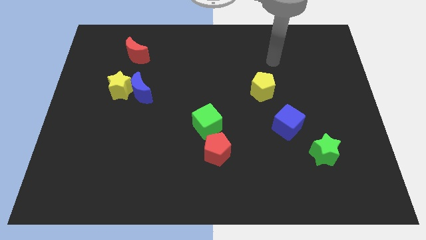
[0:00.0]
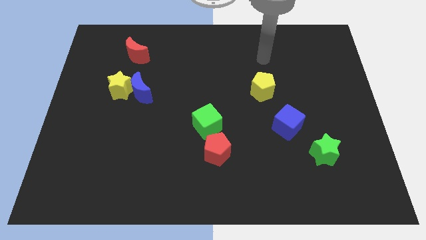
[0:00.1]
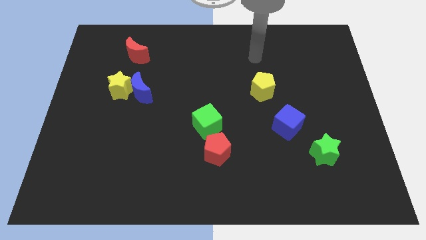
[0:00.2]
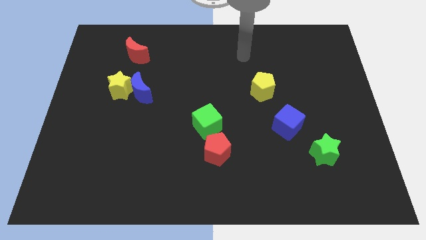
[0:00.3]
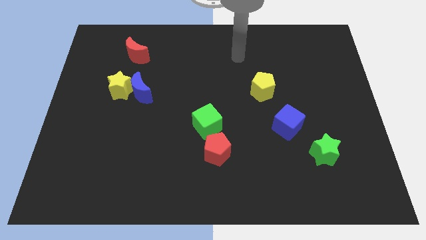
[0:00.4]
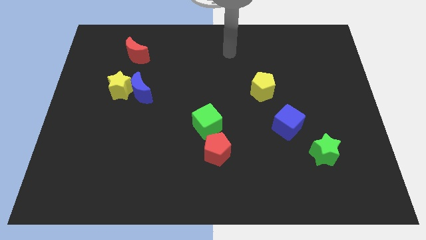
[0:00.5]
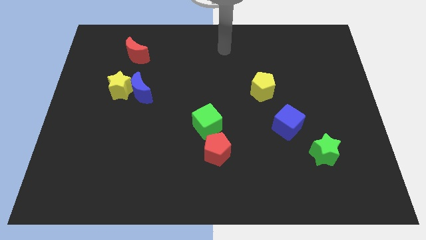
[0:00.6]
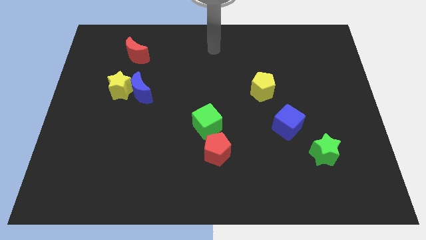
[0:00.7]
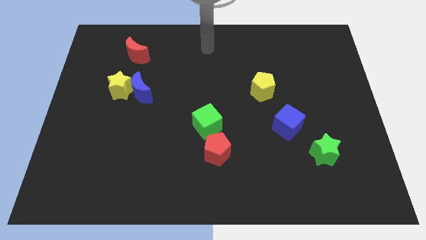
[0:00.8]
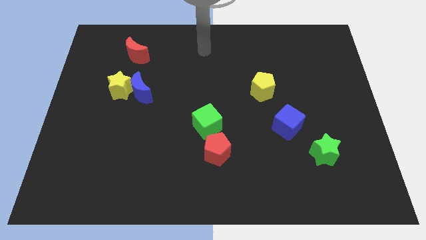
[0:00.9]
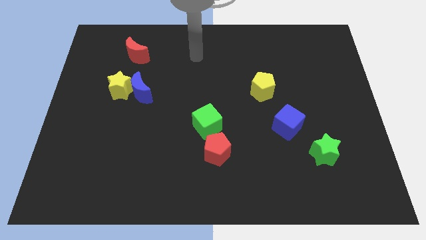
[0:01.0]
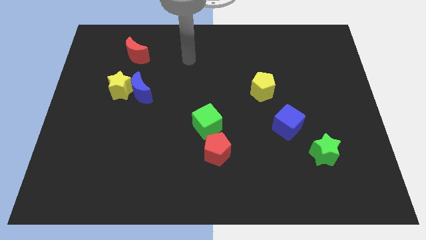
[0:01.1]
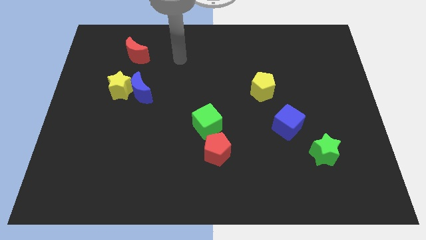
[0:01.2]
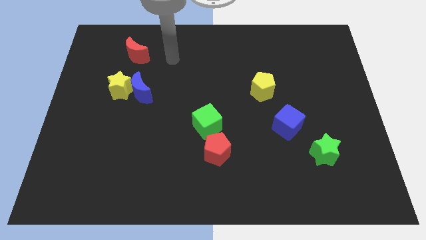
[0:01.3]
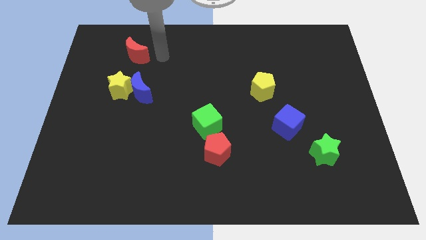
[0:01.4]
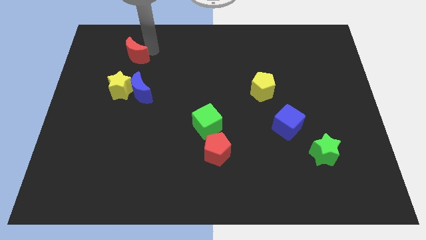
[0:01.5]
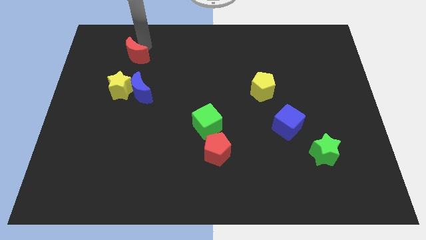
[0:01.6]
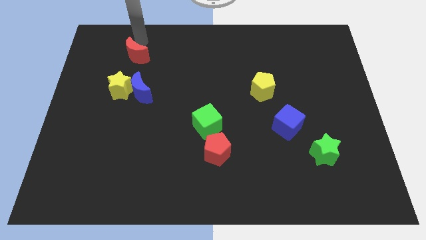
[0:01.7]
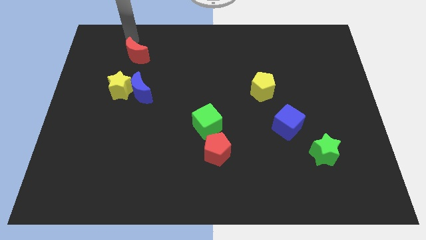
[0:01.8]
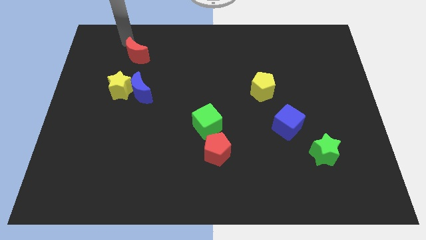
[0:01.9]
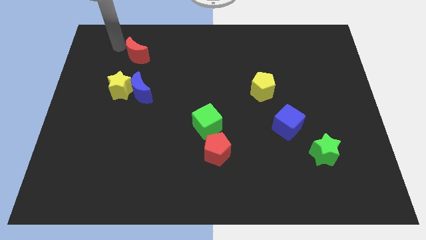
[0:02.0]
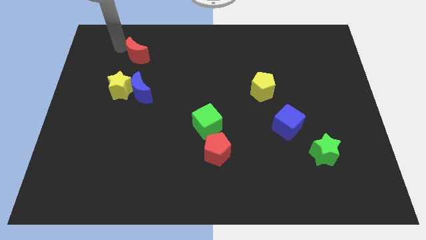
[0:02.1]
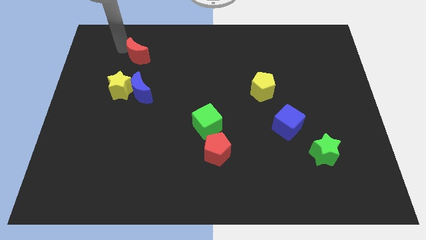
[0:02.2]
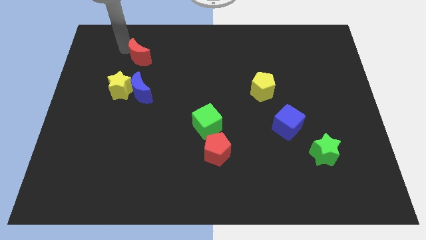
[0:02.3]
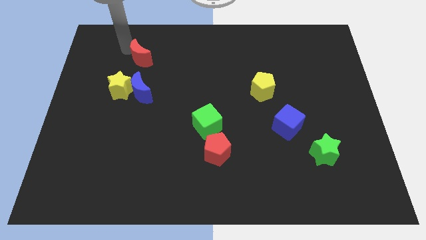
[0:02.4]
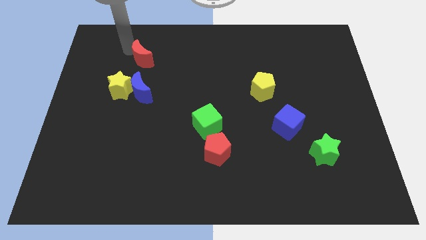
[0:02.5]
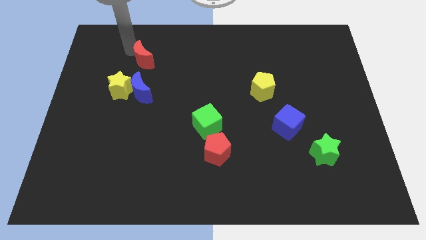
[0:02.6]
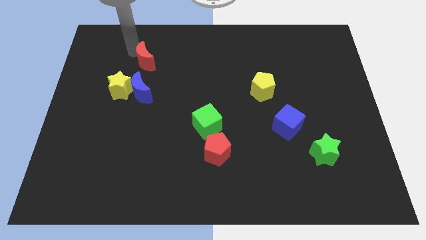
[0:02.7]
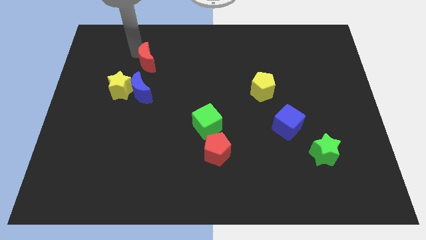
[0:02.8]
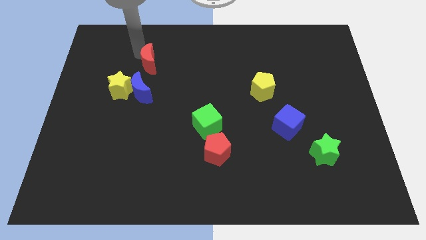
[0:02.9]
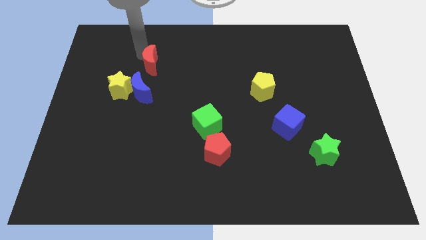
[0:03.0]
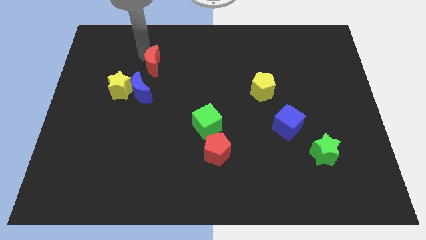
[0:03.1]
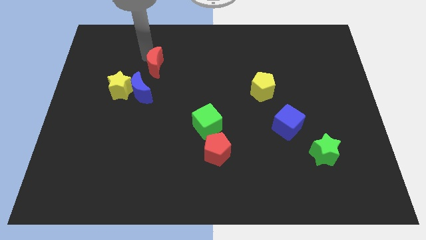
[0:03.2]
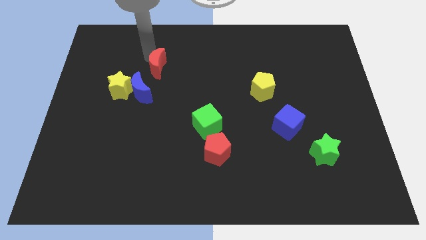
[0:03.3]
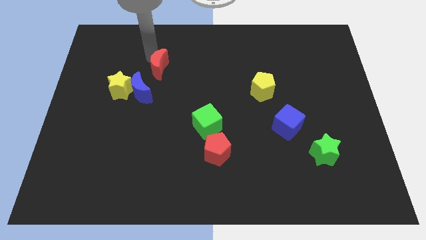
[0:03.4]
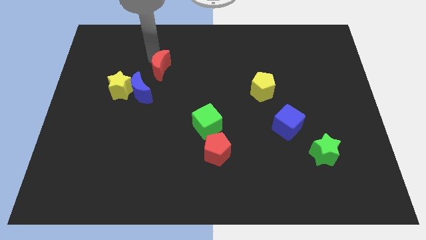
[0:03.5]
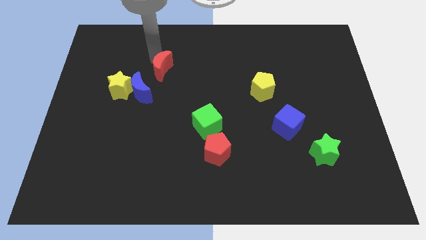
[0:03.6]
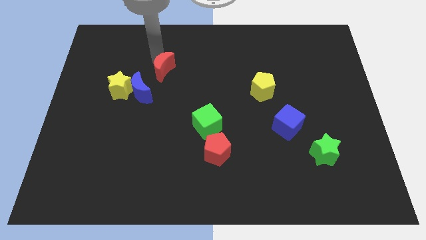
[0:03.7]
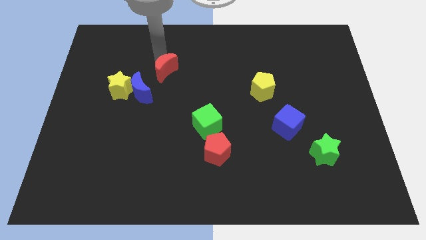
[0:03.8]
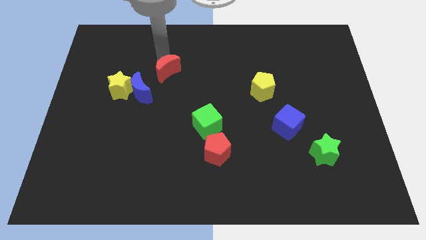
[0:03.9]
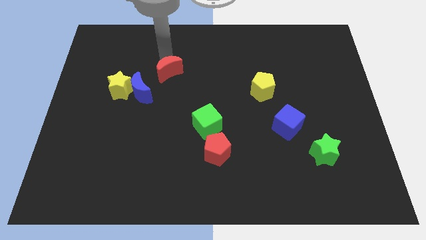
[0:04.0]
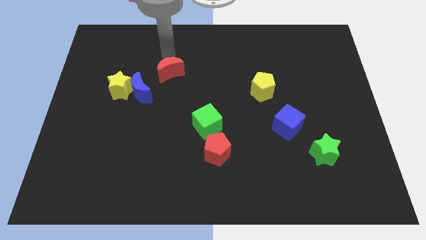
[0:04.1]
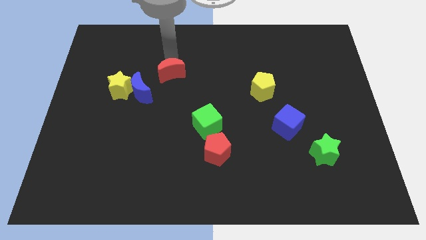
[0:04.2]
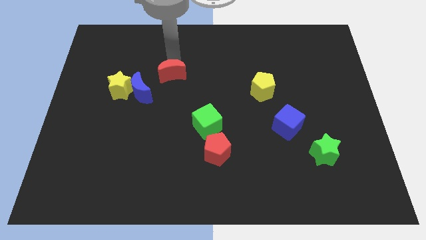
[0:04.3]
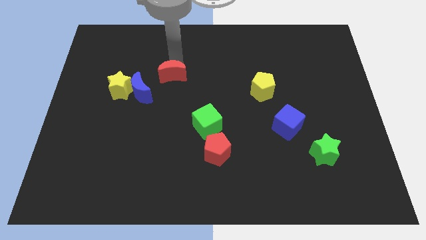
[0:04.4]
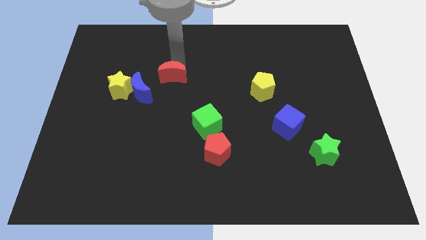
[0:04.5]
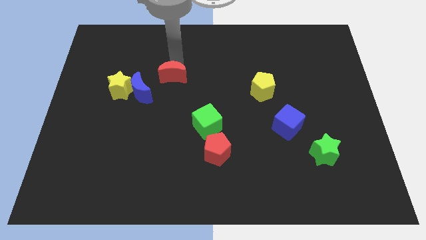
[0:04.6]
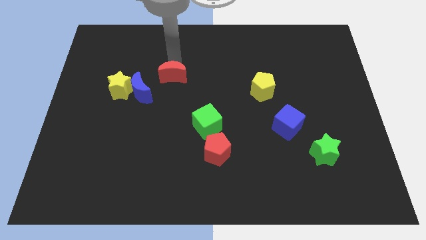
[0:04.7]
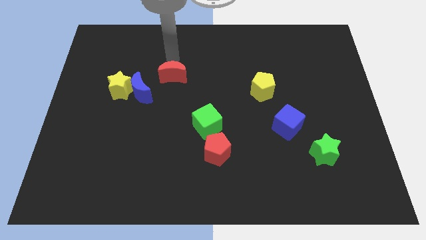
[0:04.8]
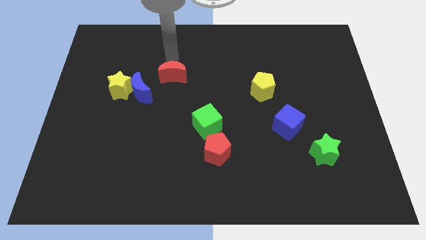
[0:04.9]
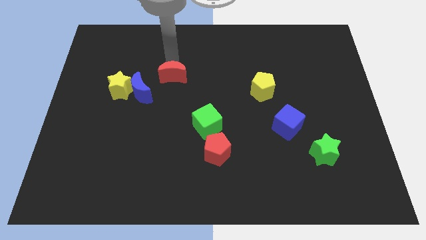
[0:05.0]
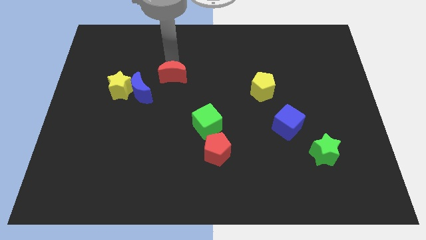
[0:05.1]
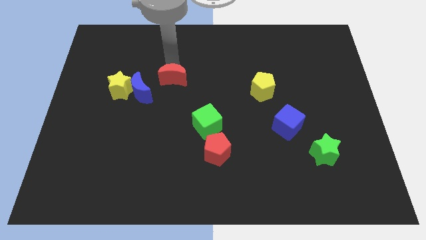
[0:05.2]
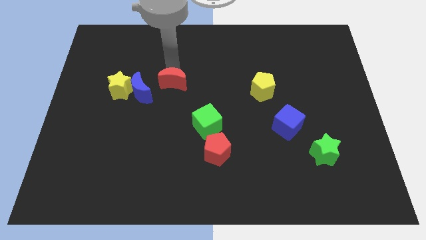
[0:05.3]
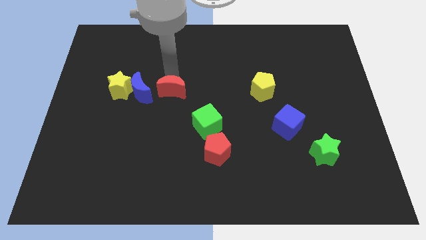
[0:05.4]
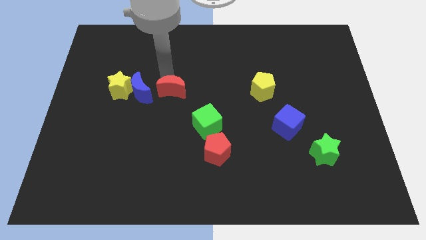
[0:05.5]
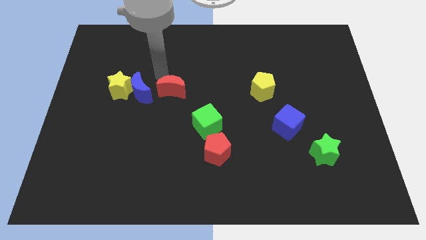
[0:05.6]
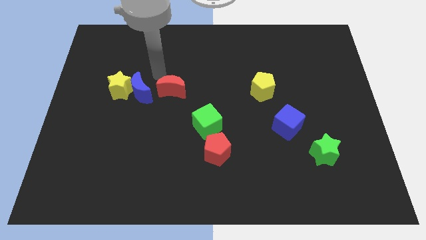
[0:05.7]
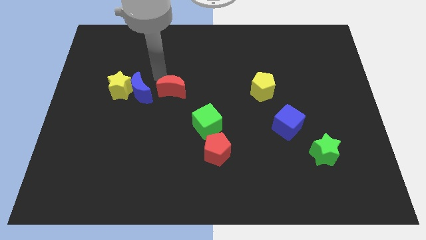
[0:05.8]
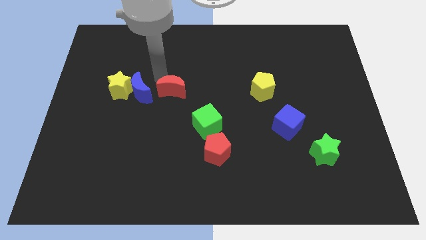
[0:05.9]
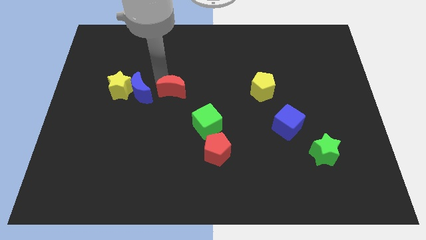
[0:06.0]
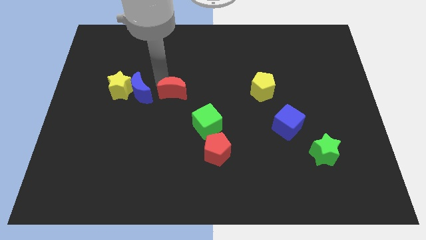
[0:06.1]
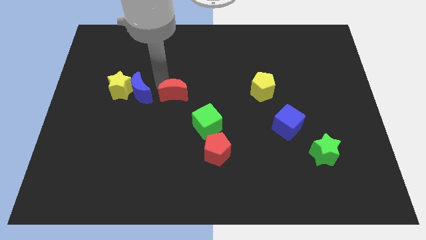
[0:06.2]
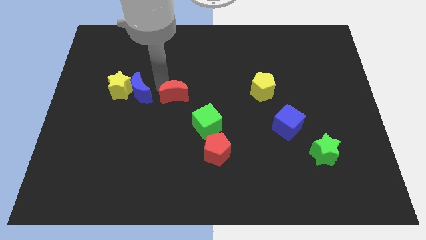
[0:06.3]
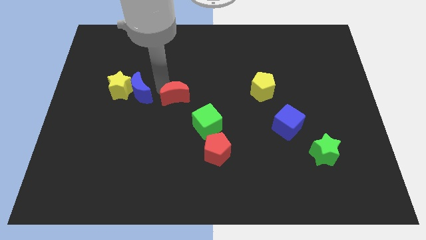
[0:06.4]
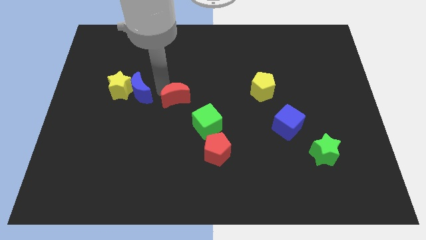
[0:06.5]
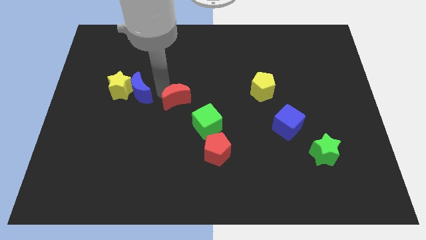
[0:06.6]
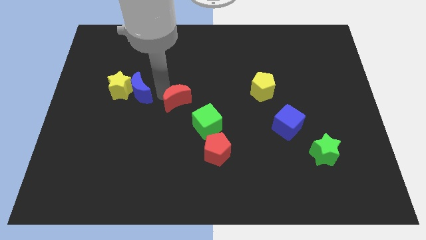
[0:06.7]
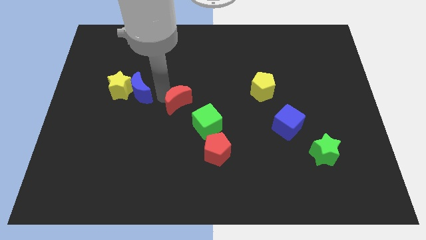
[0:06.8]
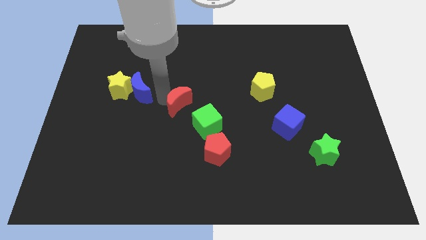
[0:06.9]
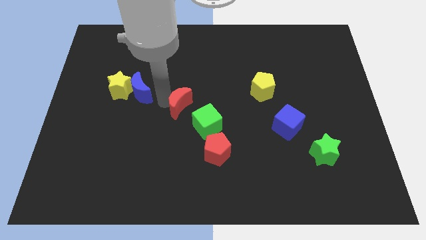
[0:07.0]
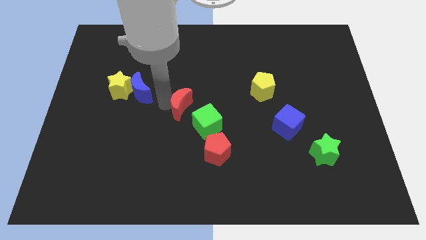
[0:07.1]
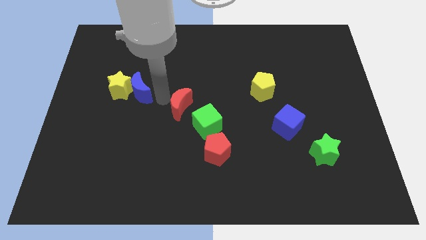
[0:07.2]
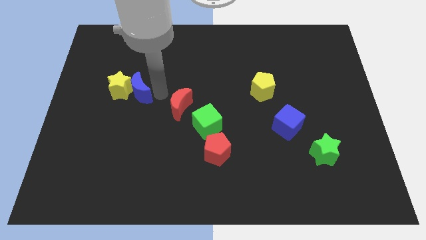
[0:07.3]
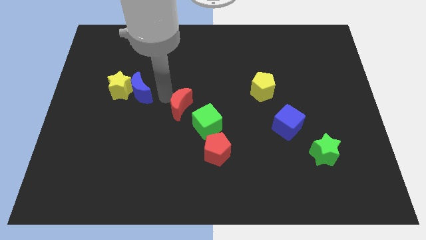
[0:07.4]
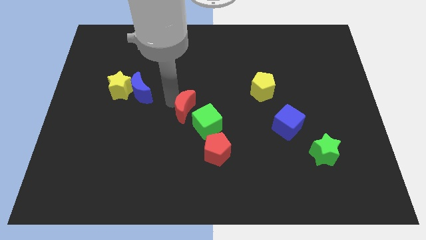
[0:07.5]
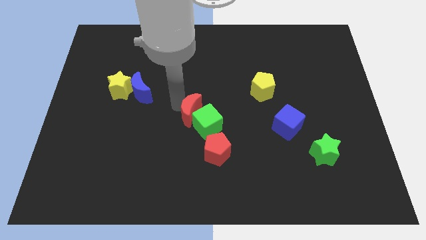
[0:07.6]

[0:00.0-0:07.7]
slide the red moon towards the green cube

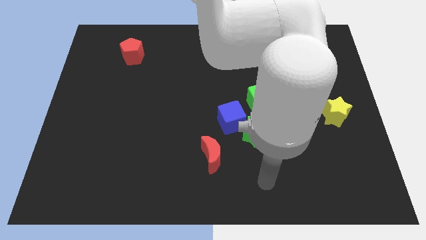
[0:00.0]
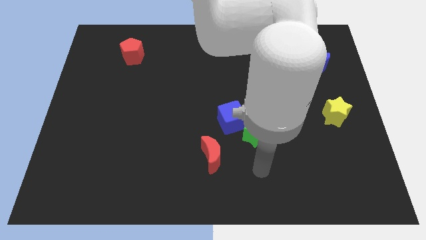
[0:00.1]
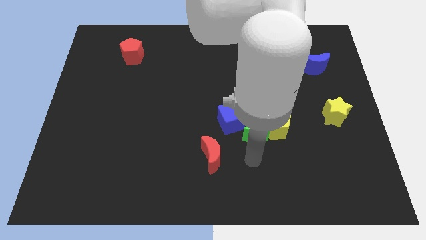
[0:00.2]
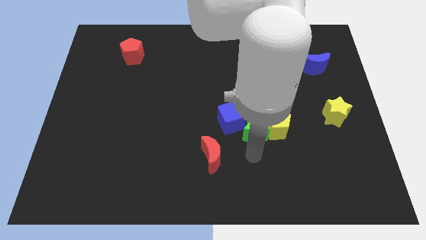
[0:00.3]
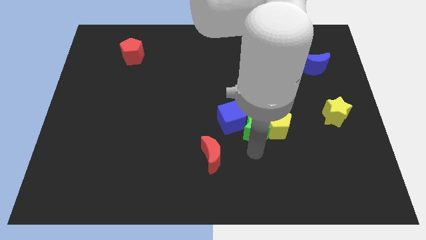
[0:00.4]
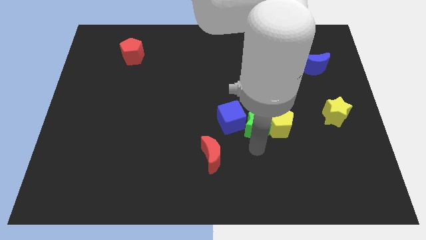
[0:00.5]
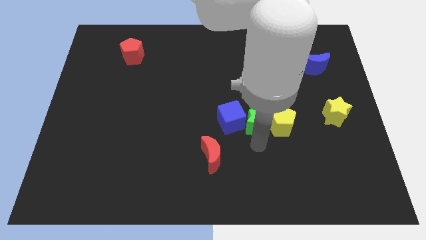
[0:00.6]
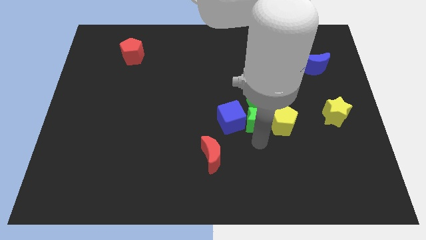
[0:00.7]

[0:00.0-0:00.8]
put the green star next to the green cube
